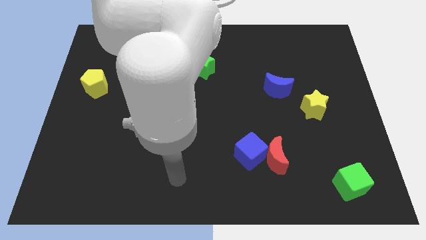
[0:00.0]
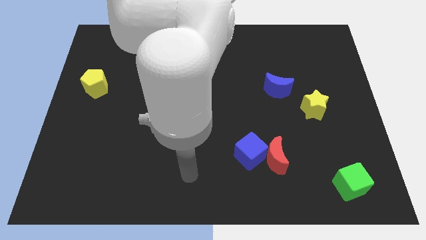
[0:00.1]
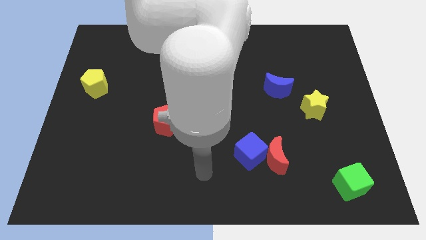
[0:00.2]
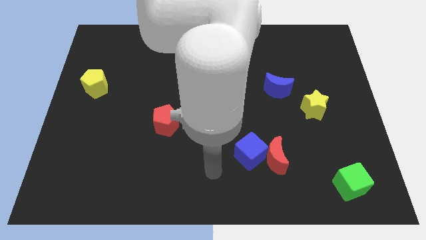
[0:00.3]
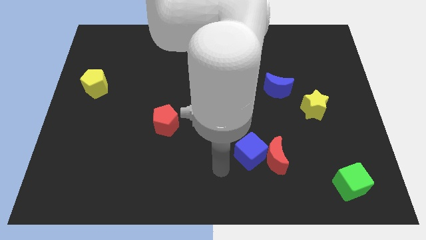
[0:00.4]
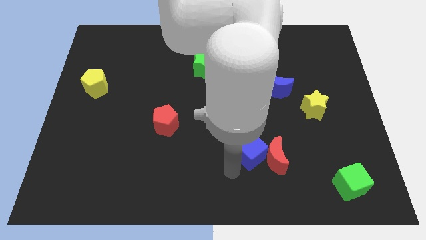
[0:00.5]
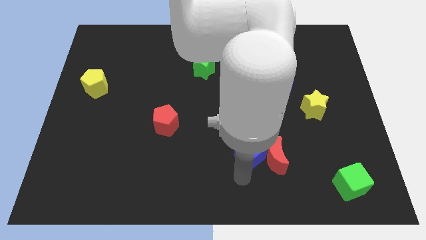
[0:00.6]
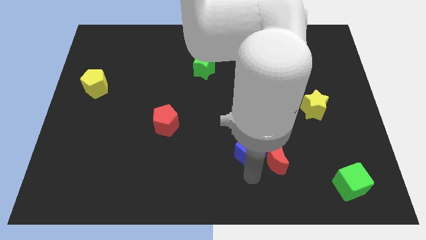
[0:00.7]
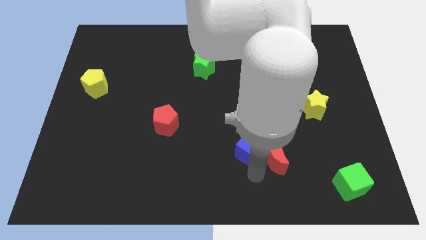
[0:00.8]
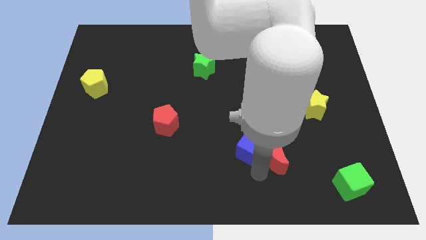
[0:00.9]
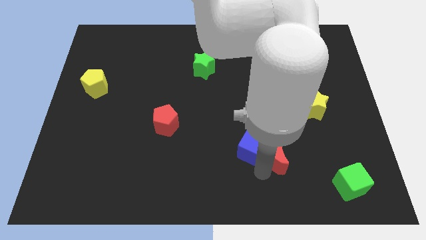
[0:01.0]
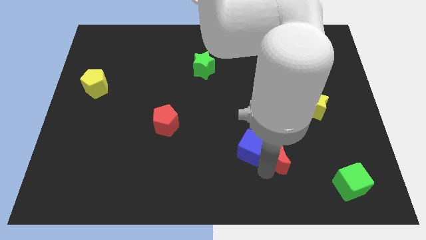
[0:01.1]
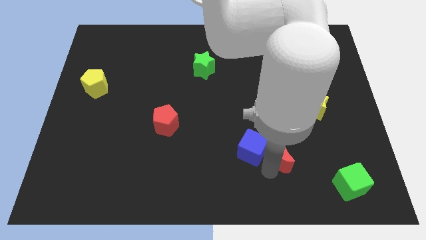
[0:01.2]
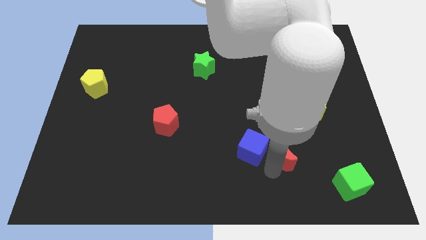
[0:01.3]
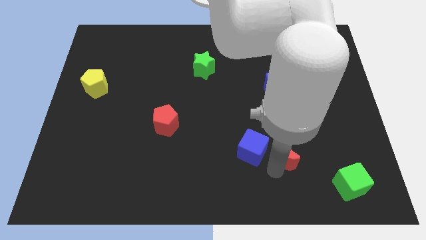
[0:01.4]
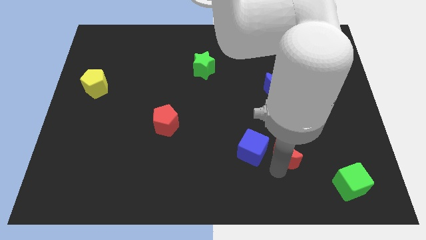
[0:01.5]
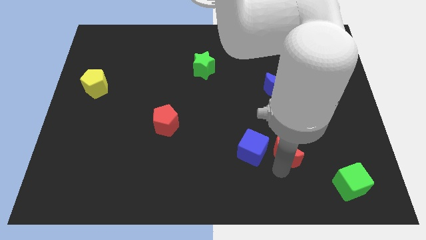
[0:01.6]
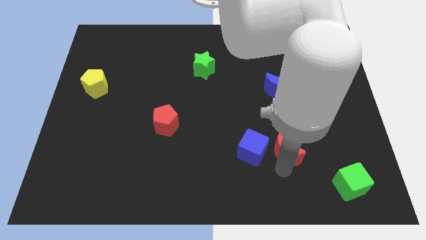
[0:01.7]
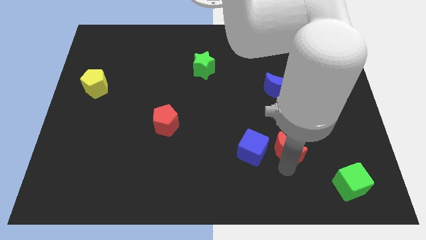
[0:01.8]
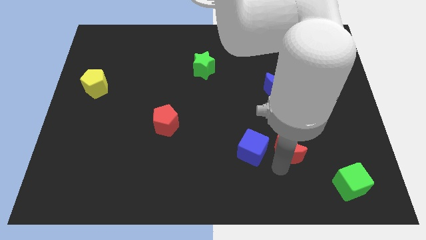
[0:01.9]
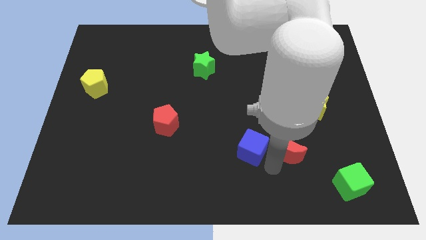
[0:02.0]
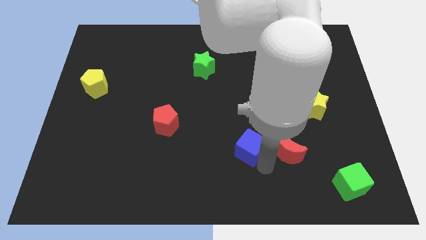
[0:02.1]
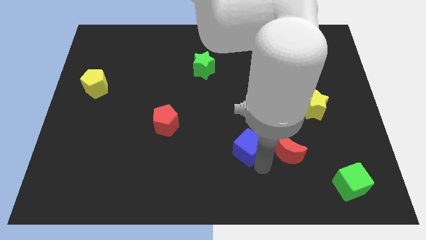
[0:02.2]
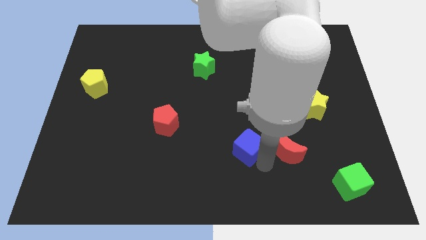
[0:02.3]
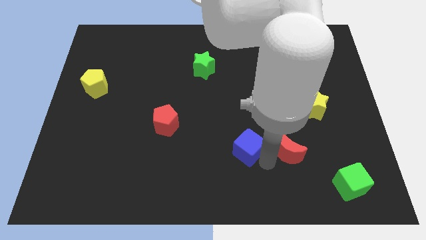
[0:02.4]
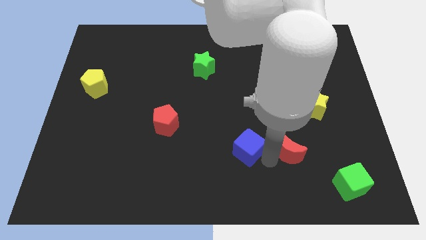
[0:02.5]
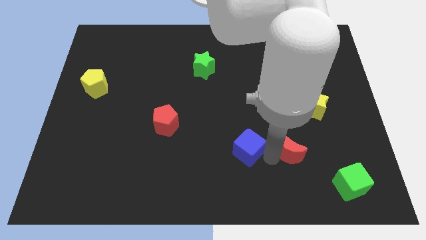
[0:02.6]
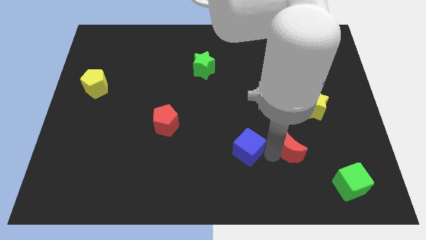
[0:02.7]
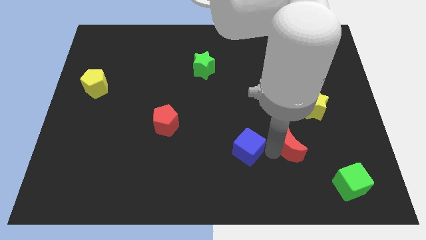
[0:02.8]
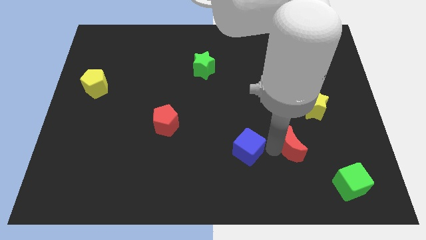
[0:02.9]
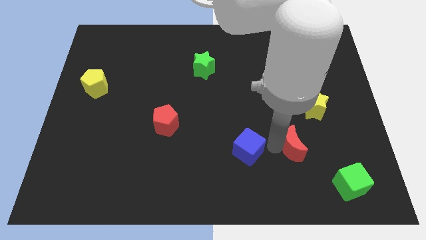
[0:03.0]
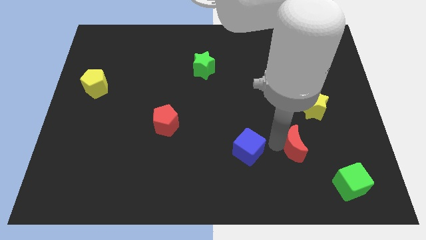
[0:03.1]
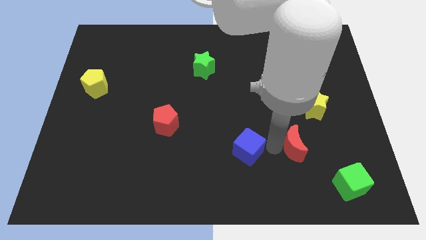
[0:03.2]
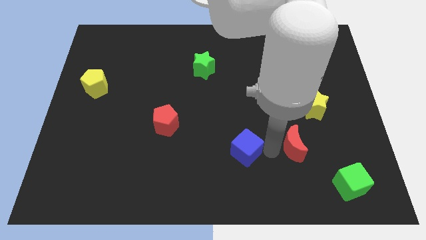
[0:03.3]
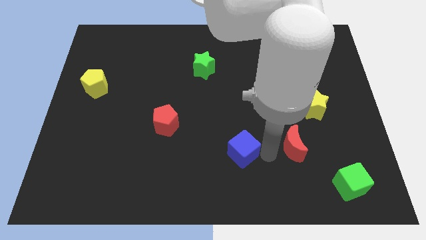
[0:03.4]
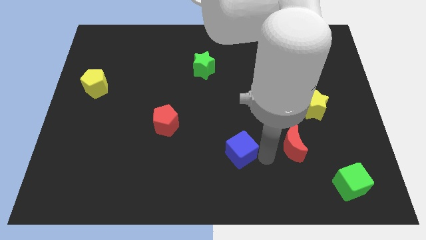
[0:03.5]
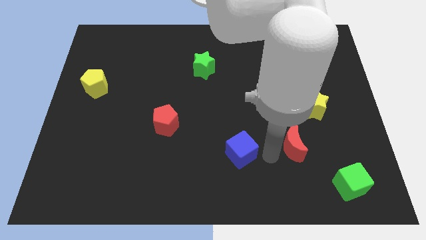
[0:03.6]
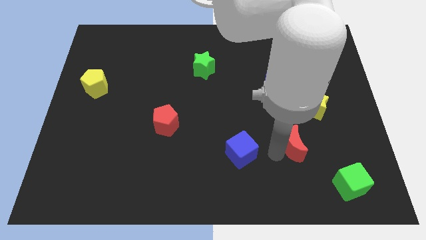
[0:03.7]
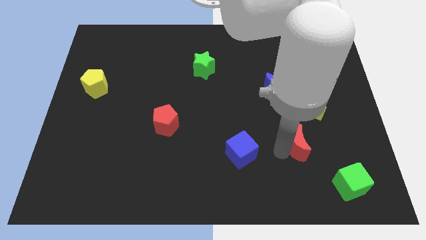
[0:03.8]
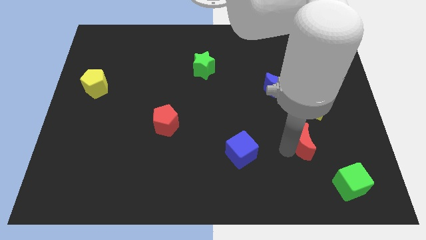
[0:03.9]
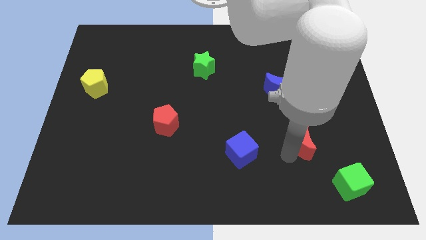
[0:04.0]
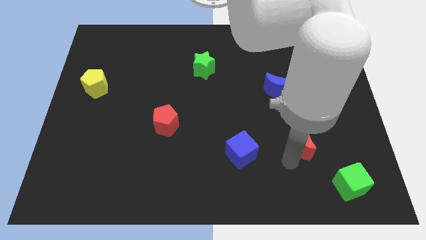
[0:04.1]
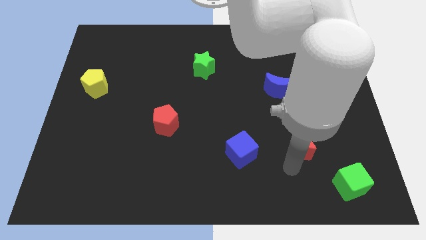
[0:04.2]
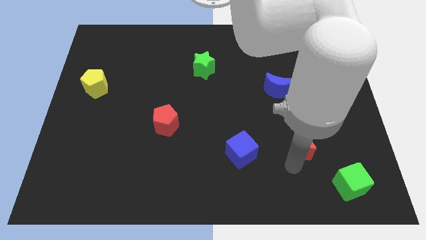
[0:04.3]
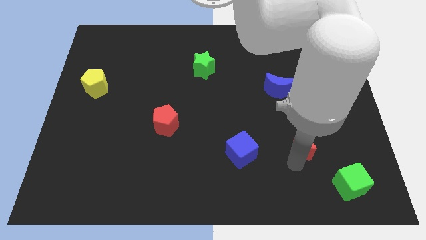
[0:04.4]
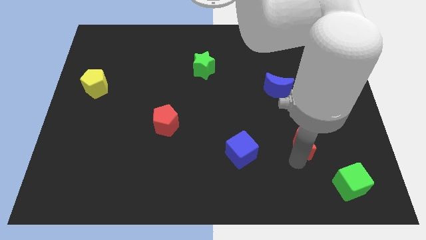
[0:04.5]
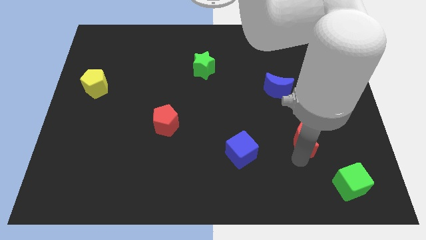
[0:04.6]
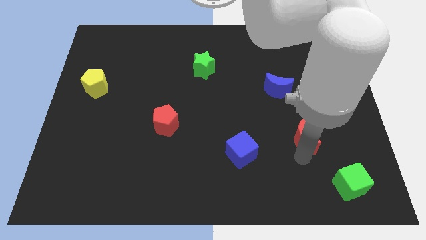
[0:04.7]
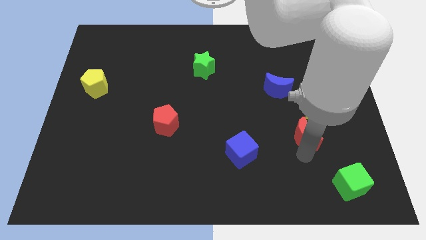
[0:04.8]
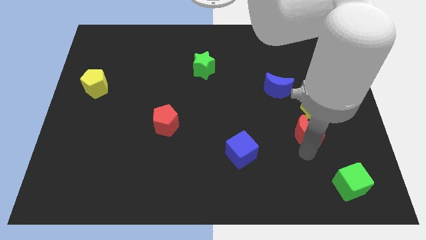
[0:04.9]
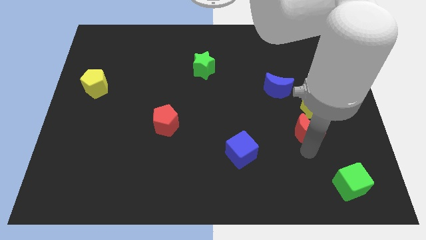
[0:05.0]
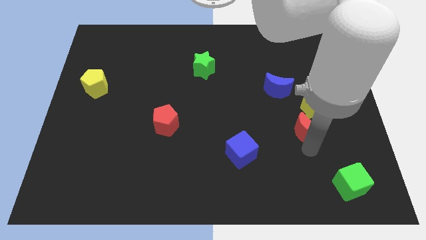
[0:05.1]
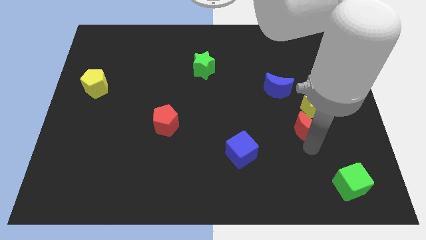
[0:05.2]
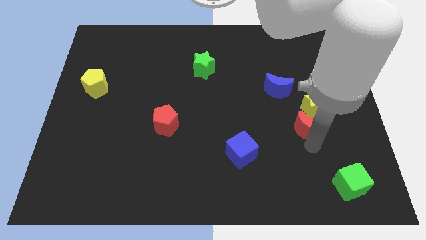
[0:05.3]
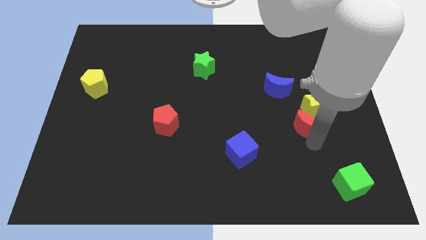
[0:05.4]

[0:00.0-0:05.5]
put the red moon towards the yellow star

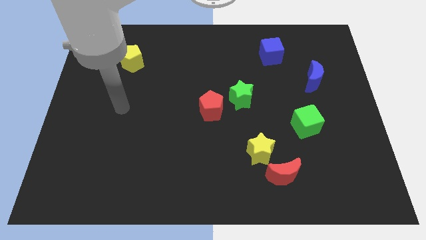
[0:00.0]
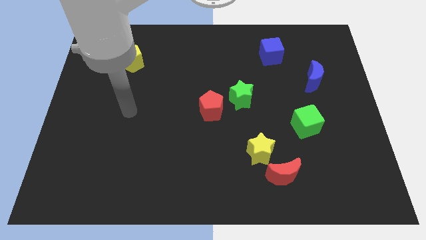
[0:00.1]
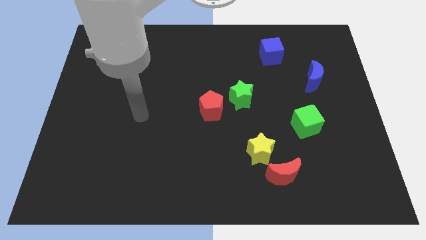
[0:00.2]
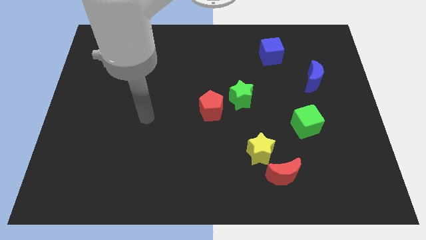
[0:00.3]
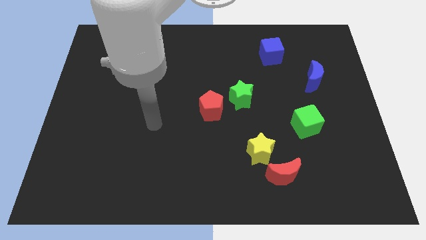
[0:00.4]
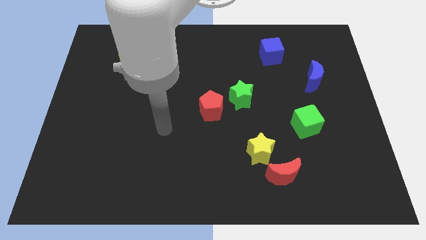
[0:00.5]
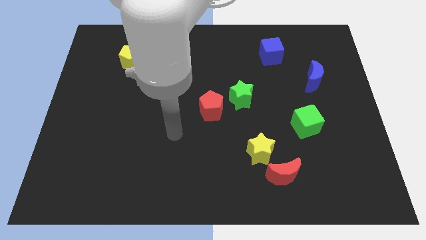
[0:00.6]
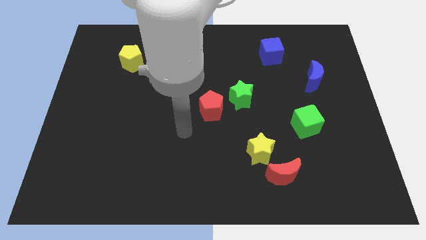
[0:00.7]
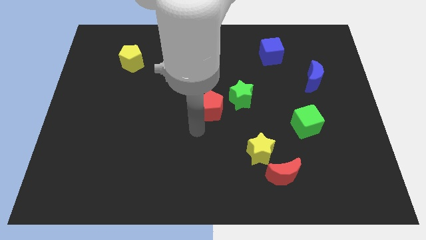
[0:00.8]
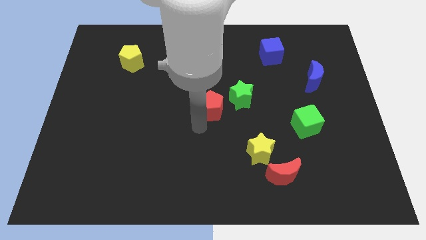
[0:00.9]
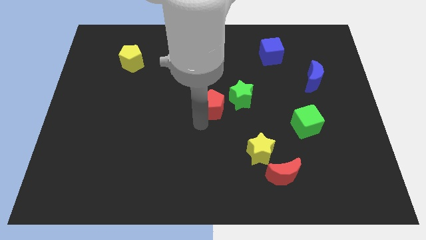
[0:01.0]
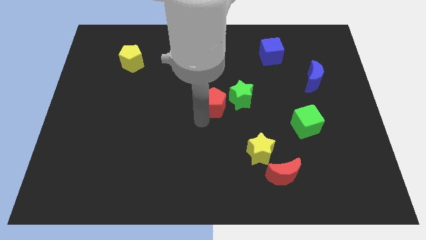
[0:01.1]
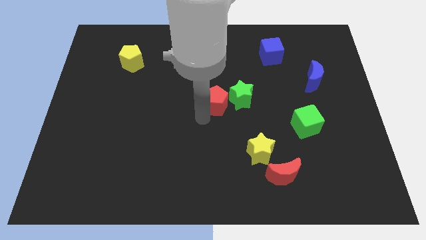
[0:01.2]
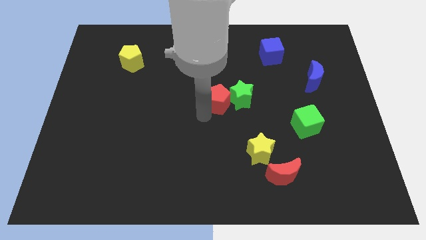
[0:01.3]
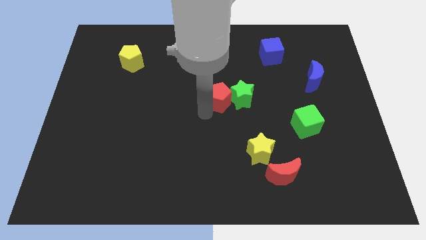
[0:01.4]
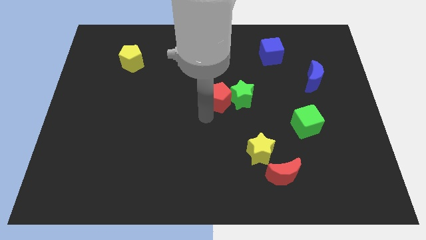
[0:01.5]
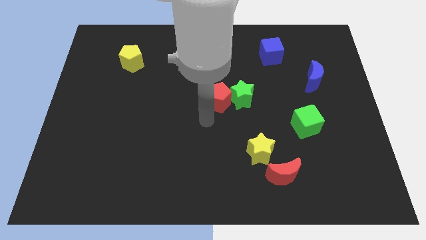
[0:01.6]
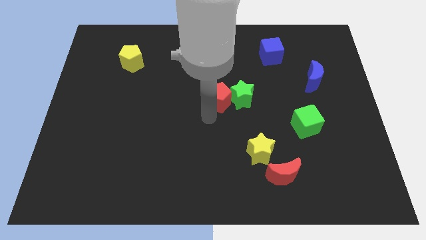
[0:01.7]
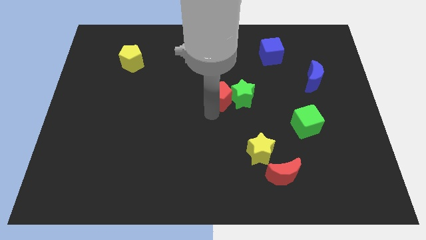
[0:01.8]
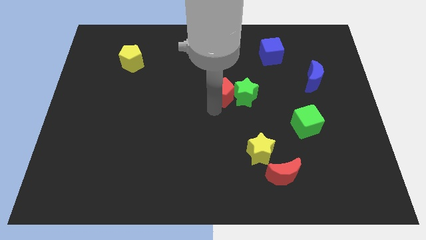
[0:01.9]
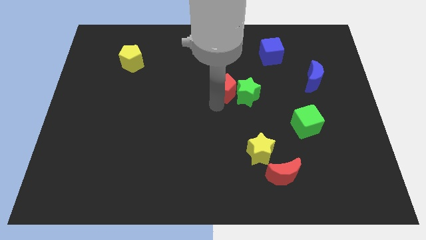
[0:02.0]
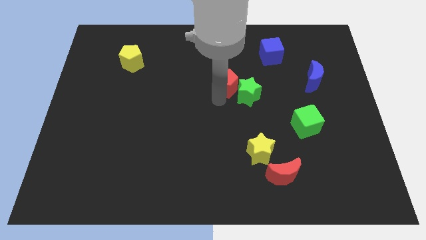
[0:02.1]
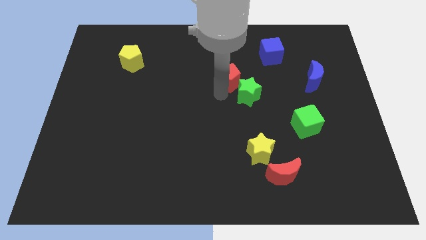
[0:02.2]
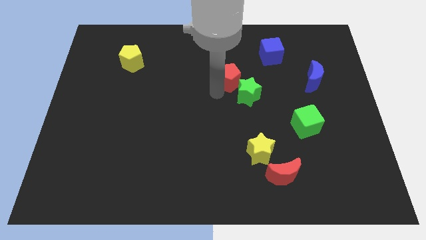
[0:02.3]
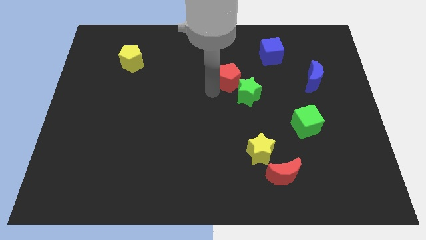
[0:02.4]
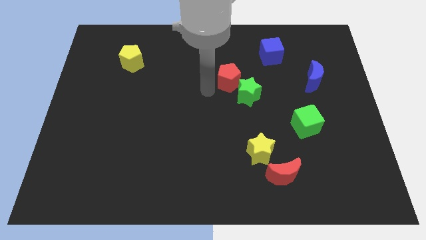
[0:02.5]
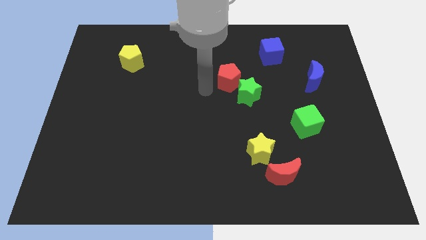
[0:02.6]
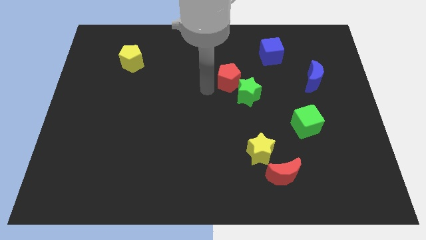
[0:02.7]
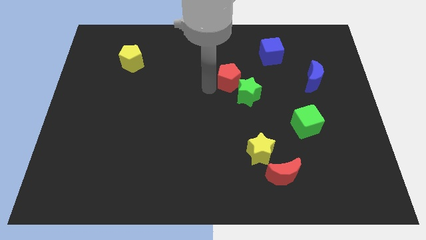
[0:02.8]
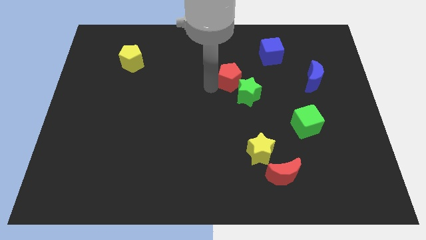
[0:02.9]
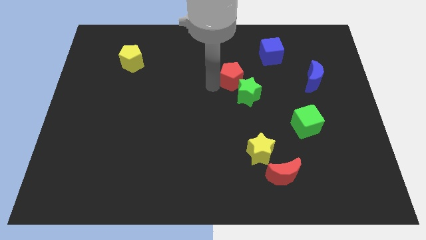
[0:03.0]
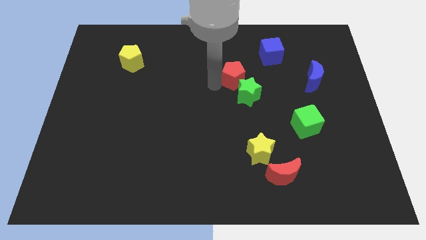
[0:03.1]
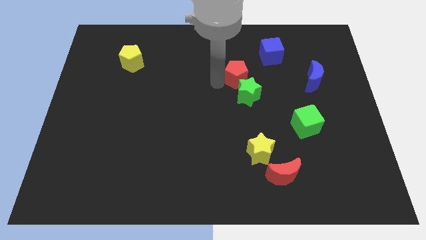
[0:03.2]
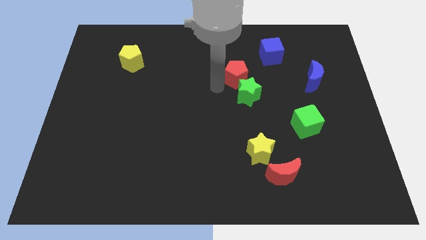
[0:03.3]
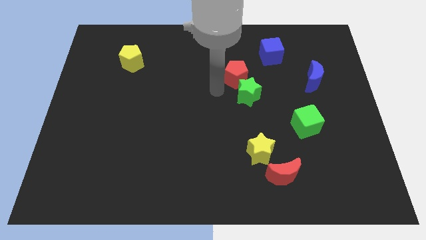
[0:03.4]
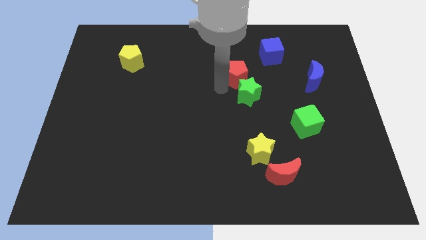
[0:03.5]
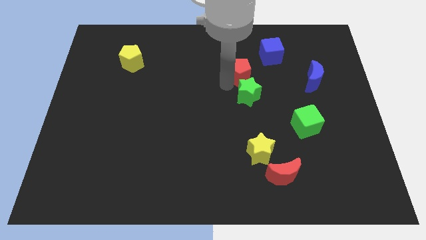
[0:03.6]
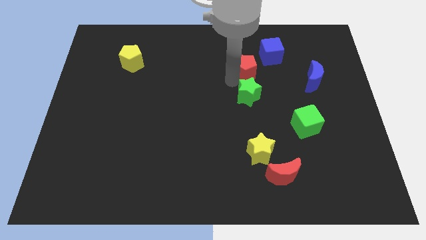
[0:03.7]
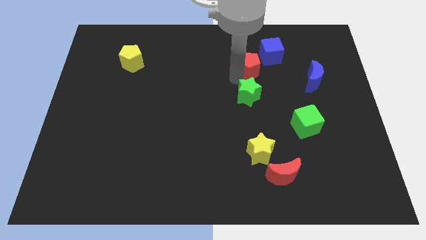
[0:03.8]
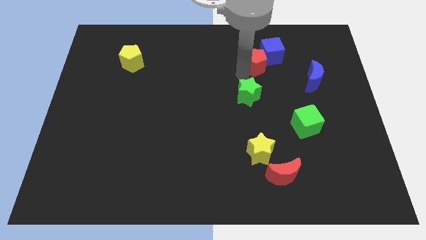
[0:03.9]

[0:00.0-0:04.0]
put the red pentagon to the blue cube
